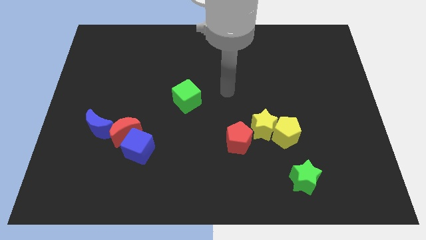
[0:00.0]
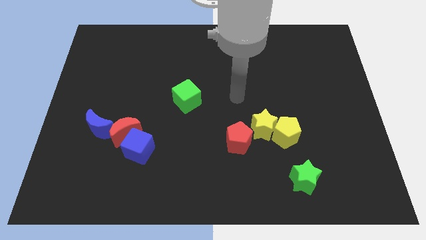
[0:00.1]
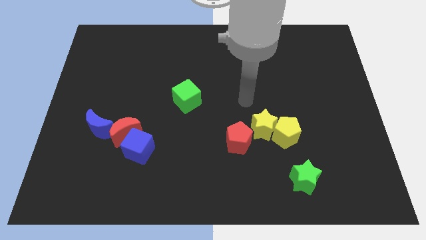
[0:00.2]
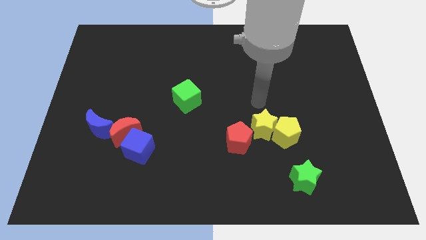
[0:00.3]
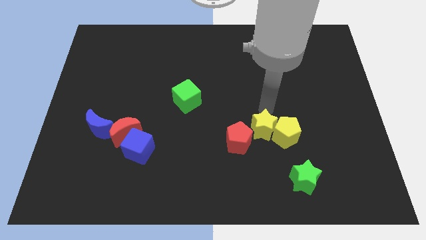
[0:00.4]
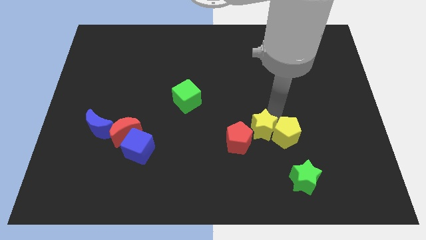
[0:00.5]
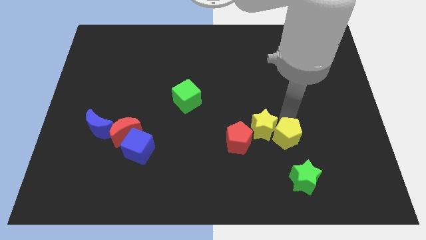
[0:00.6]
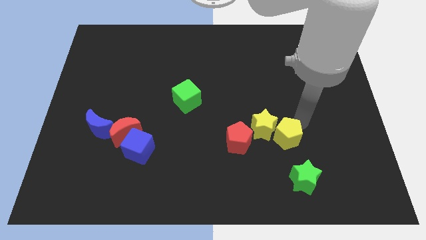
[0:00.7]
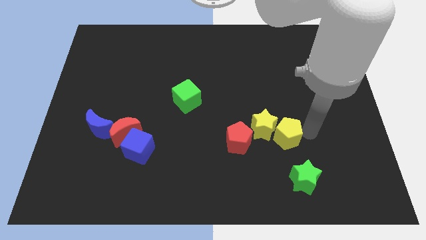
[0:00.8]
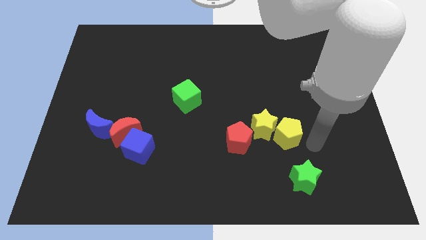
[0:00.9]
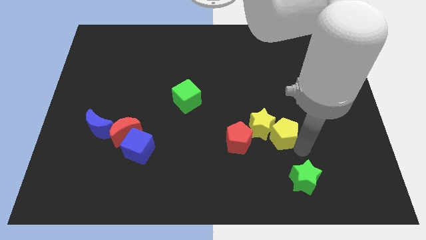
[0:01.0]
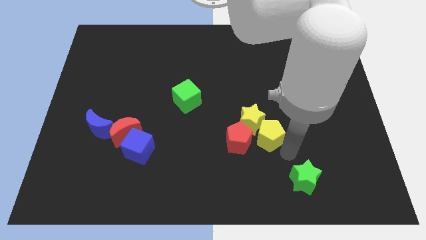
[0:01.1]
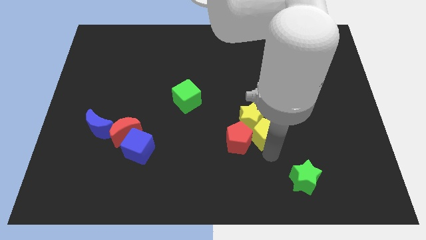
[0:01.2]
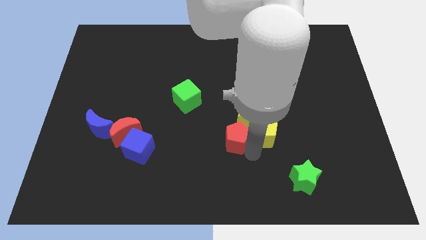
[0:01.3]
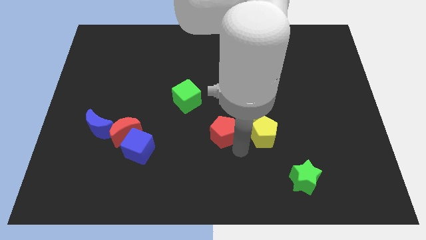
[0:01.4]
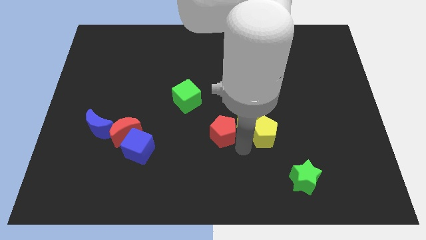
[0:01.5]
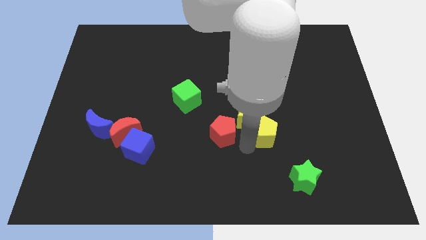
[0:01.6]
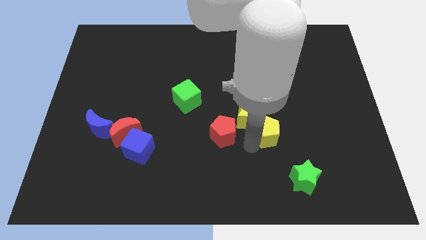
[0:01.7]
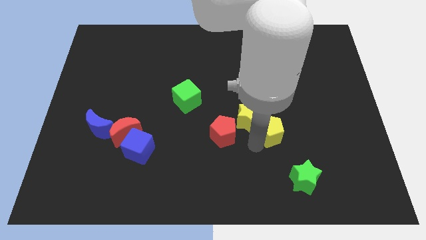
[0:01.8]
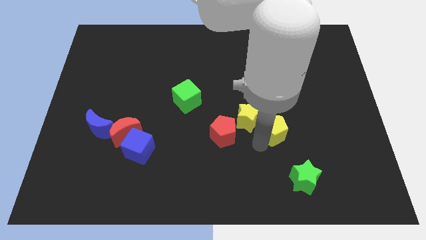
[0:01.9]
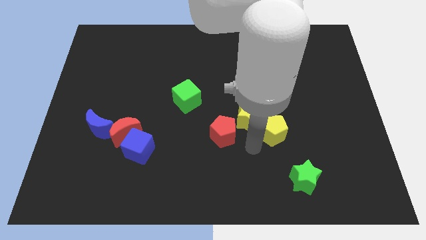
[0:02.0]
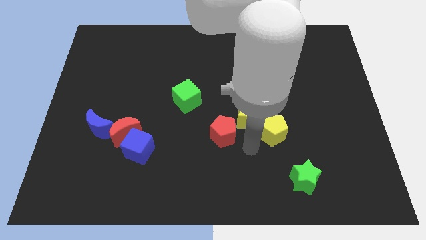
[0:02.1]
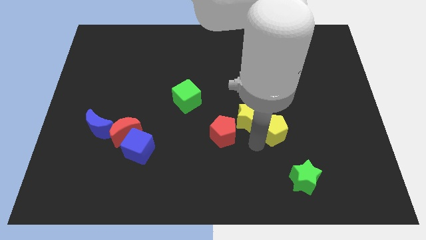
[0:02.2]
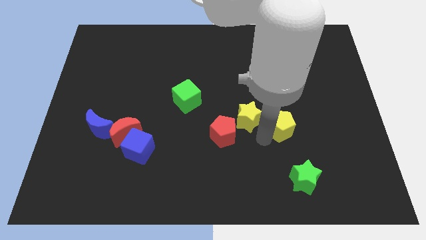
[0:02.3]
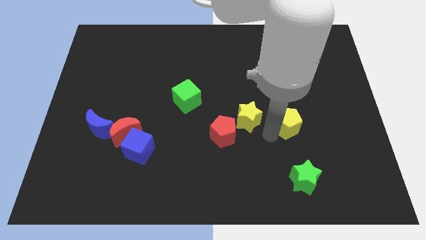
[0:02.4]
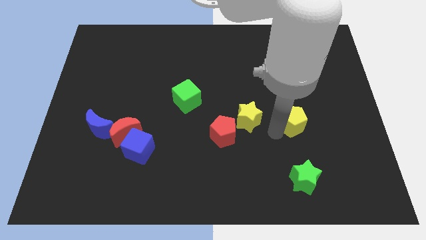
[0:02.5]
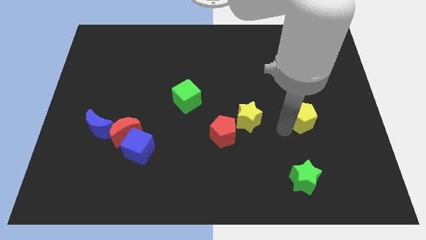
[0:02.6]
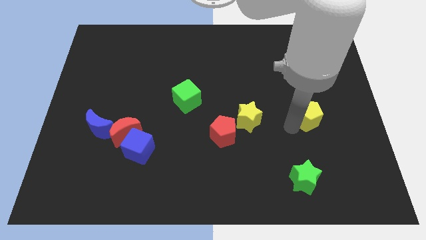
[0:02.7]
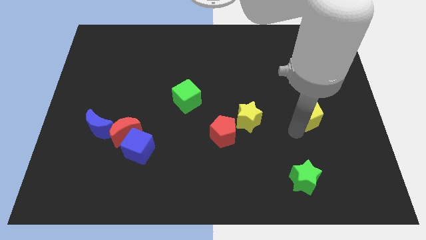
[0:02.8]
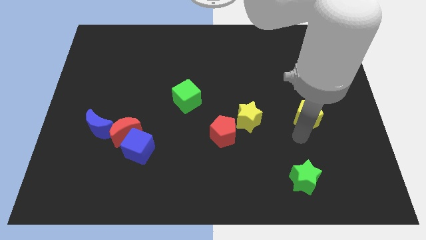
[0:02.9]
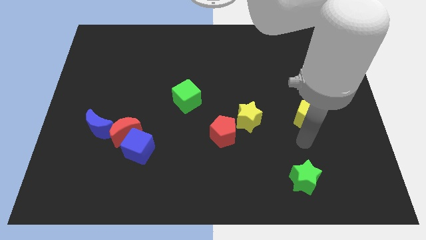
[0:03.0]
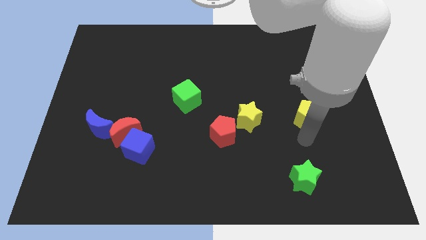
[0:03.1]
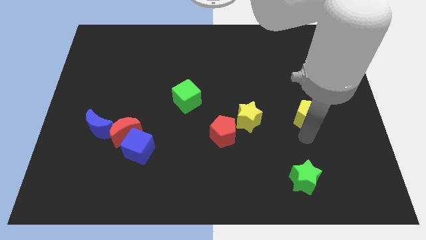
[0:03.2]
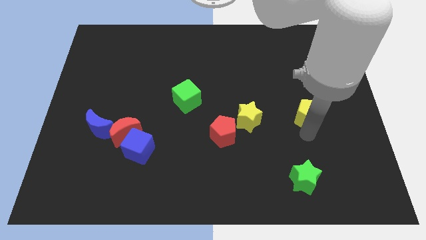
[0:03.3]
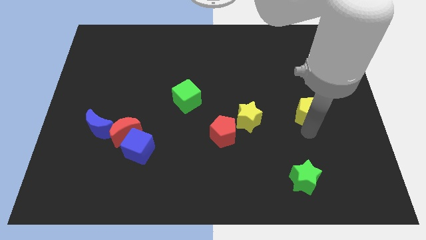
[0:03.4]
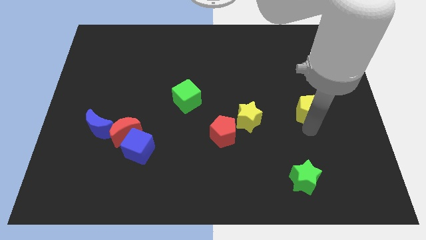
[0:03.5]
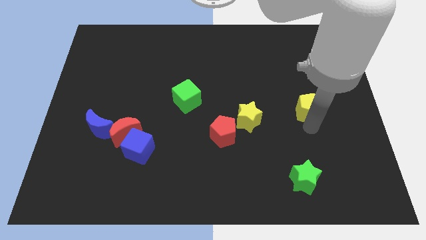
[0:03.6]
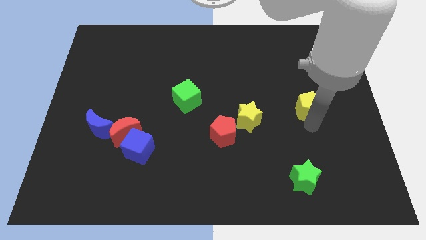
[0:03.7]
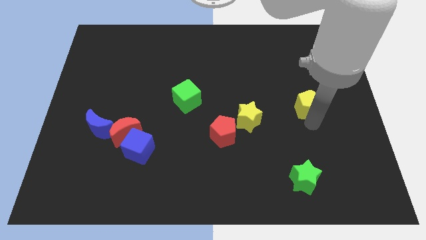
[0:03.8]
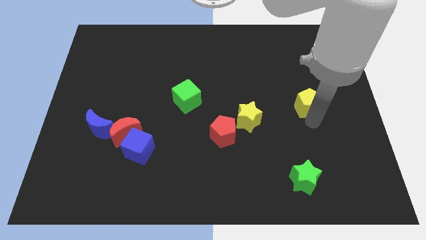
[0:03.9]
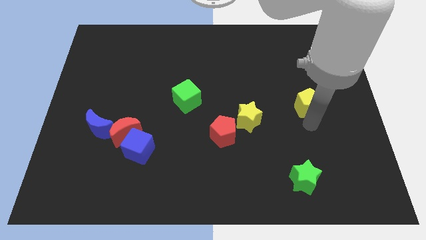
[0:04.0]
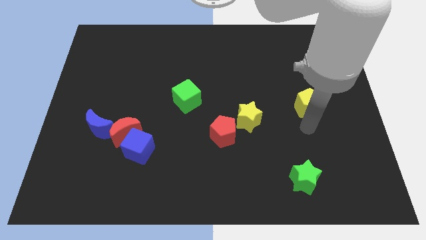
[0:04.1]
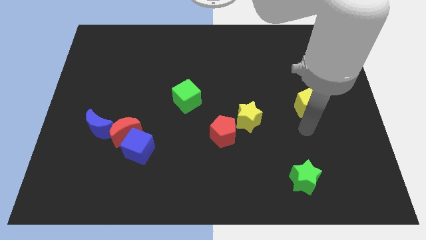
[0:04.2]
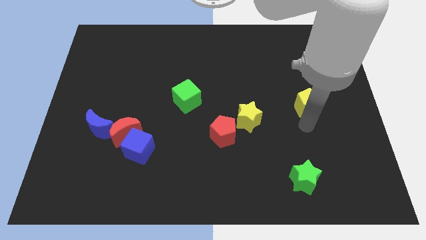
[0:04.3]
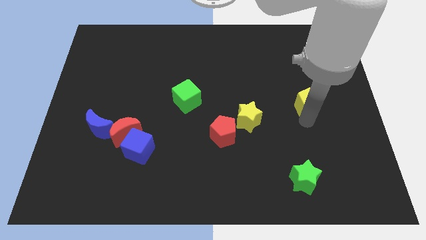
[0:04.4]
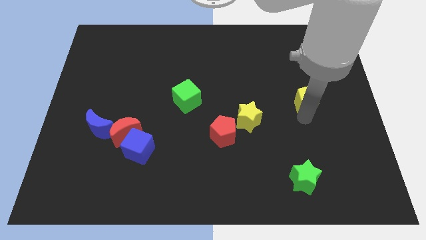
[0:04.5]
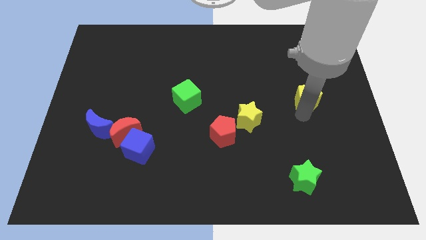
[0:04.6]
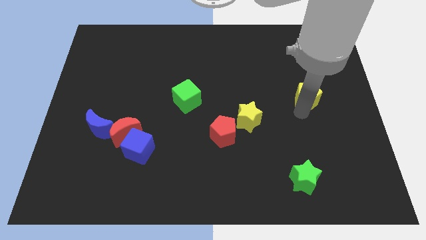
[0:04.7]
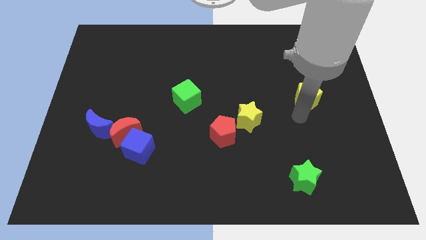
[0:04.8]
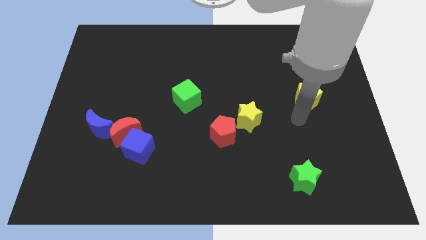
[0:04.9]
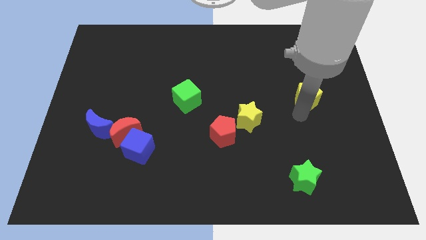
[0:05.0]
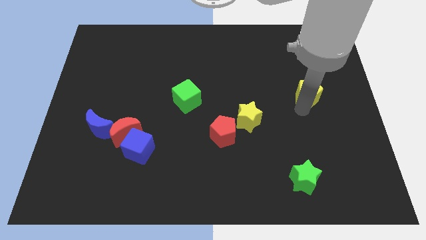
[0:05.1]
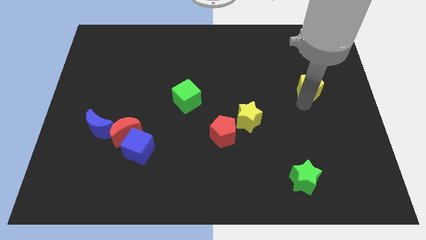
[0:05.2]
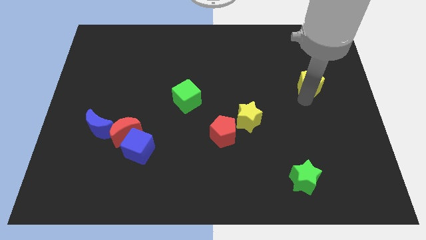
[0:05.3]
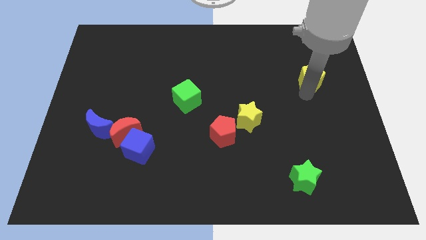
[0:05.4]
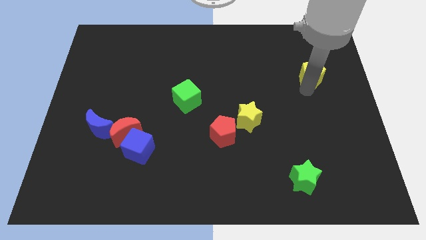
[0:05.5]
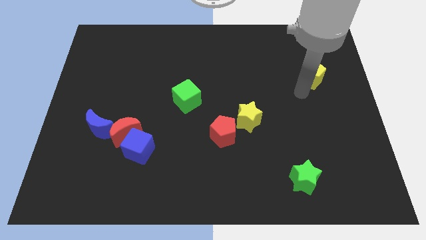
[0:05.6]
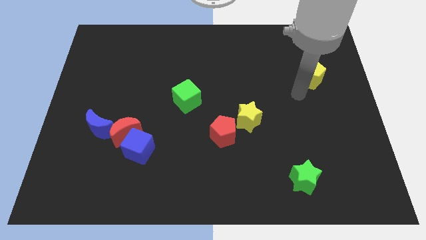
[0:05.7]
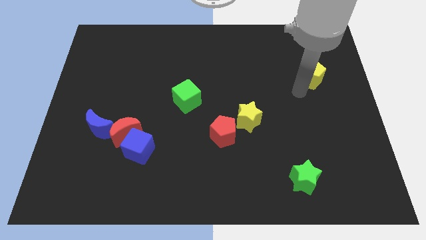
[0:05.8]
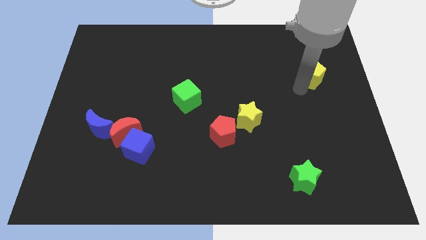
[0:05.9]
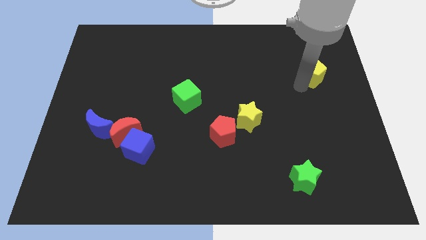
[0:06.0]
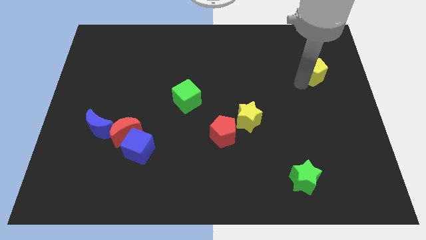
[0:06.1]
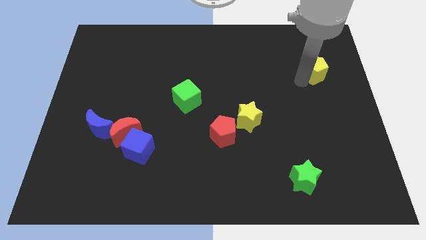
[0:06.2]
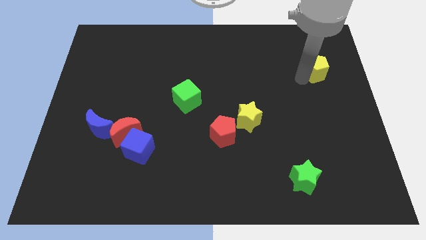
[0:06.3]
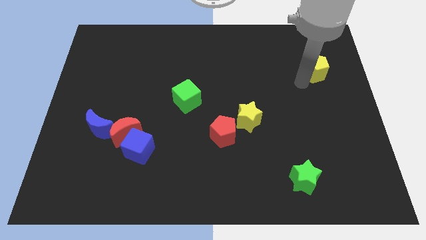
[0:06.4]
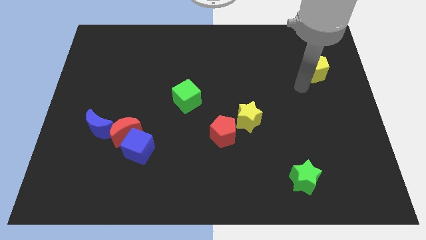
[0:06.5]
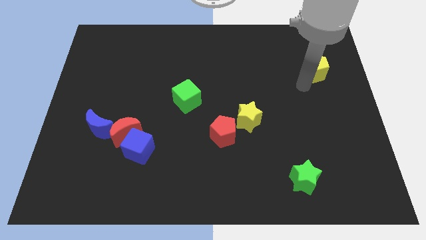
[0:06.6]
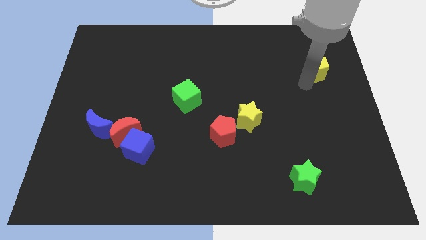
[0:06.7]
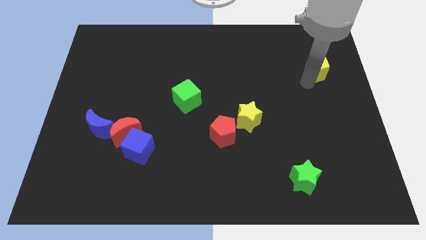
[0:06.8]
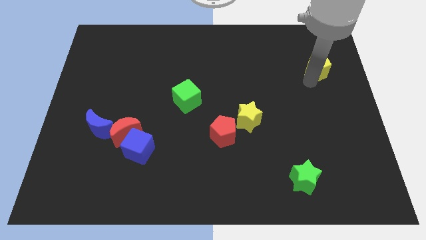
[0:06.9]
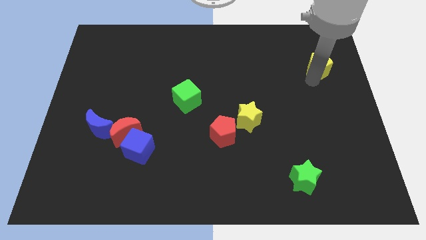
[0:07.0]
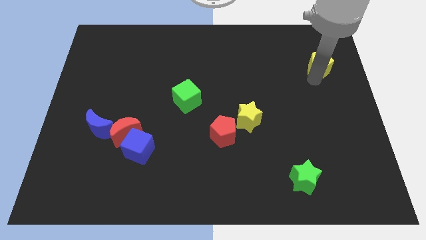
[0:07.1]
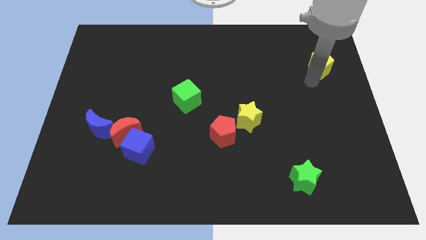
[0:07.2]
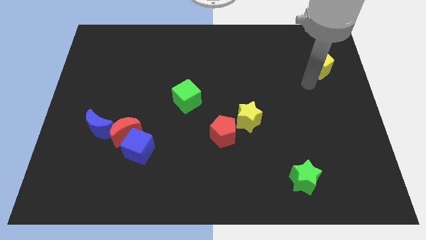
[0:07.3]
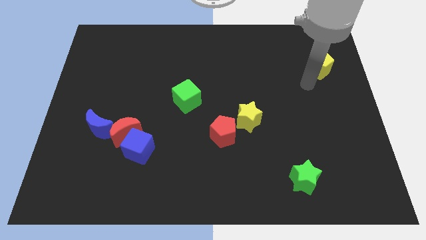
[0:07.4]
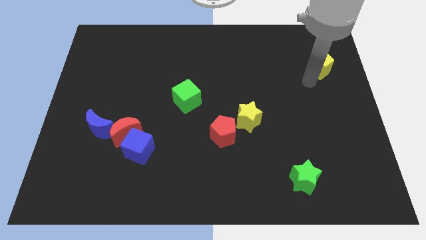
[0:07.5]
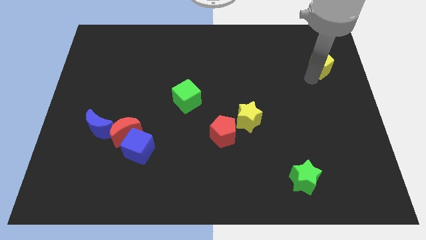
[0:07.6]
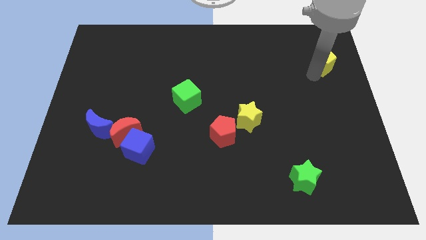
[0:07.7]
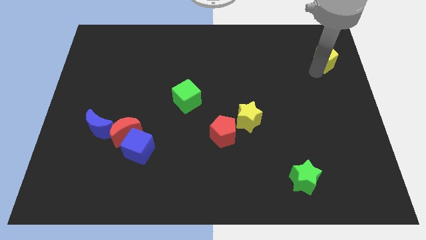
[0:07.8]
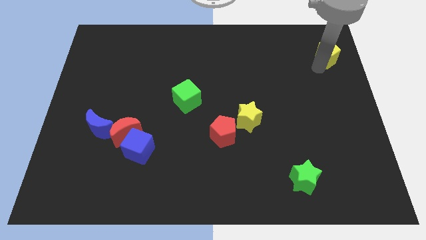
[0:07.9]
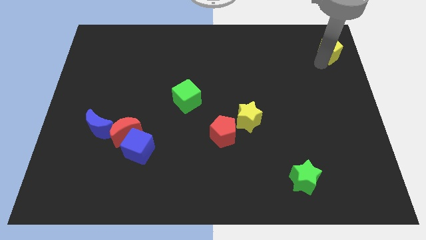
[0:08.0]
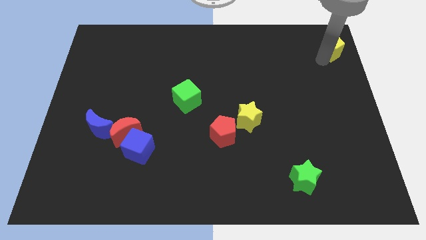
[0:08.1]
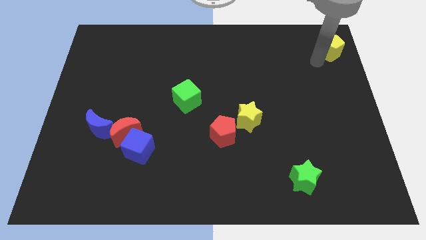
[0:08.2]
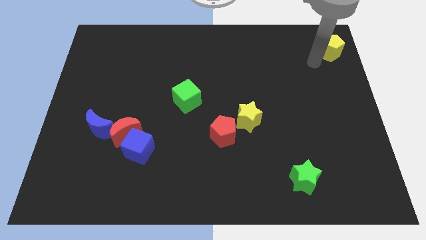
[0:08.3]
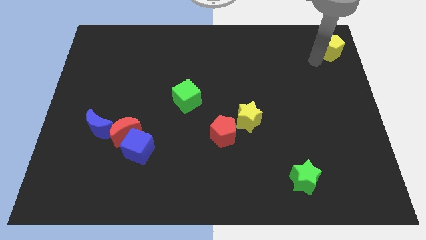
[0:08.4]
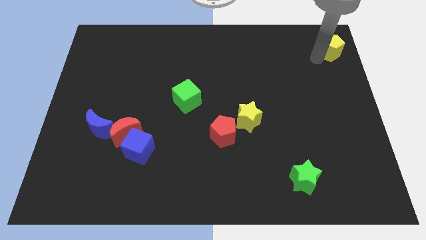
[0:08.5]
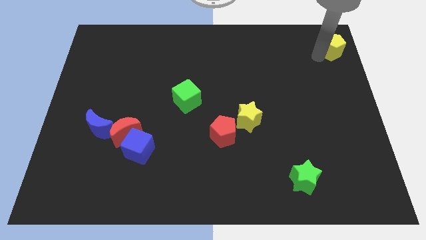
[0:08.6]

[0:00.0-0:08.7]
move the yellow pentagon to the upper right corner
